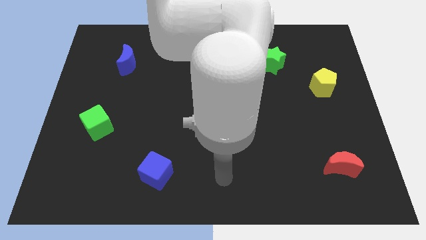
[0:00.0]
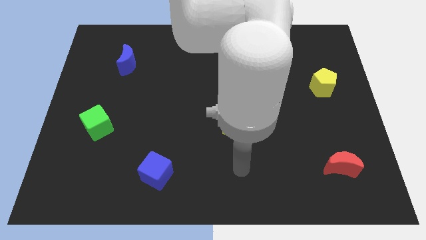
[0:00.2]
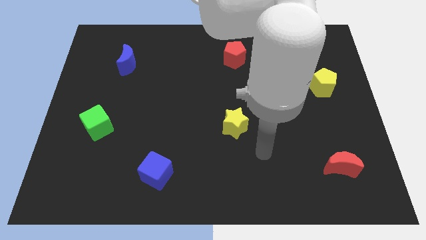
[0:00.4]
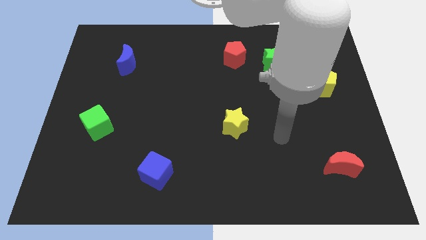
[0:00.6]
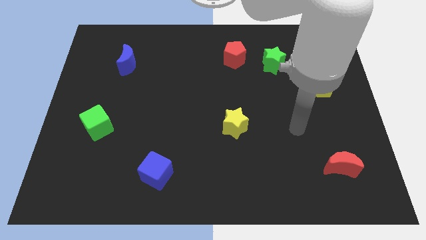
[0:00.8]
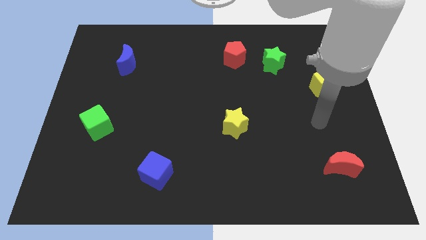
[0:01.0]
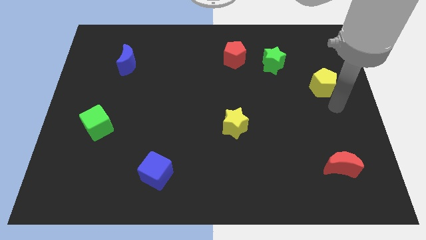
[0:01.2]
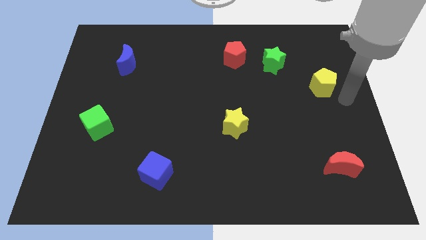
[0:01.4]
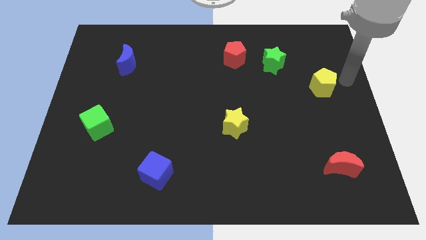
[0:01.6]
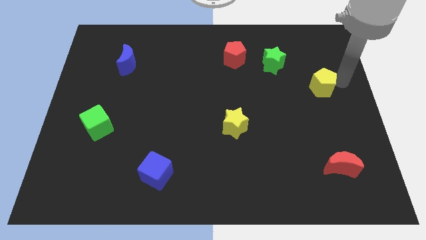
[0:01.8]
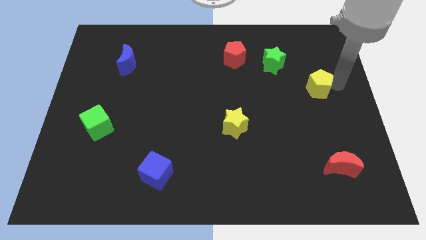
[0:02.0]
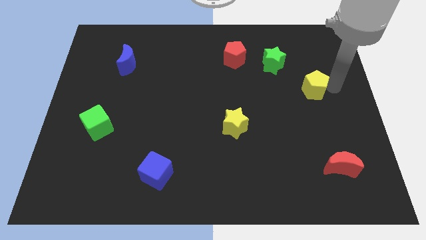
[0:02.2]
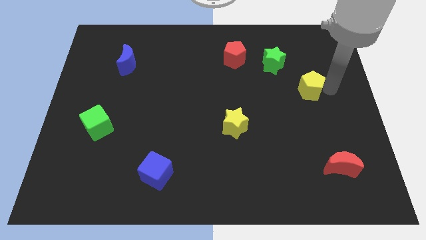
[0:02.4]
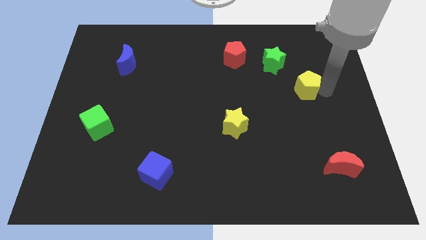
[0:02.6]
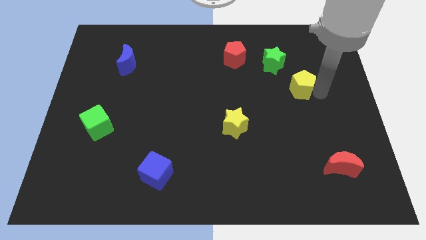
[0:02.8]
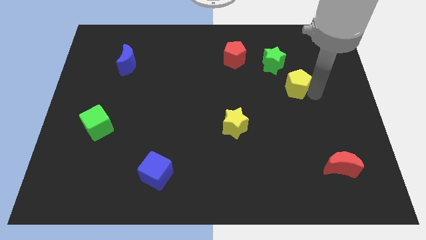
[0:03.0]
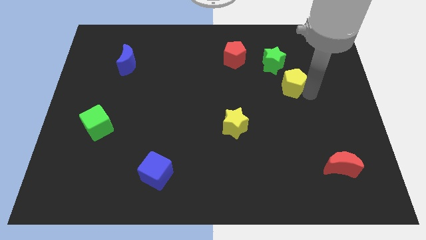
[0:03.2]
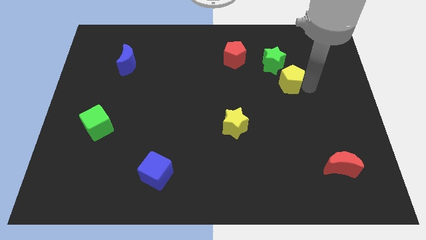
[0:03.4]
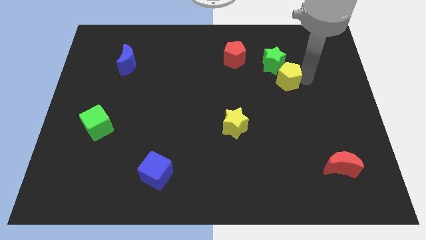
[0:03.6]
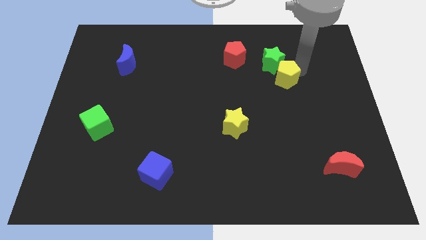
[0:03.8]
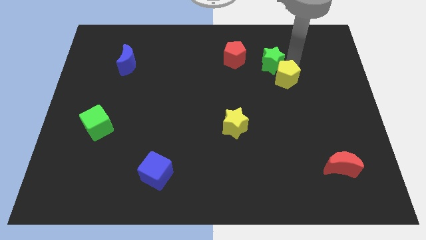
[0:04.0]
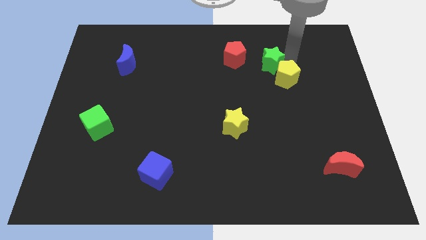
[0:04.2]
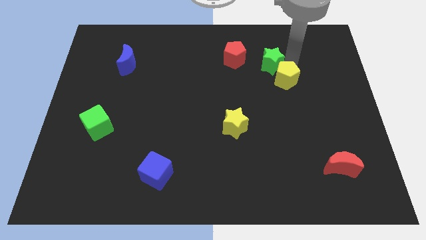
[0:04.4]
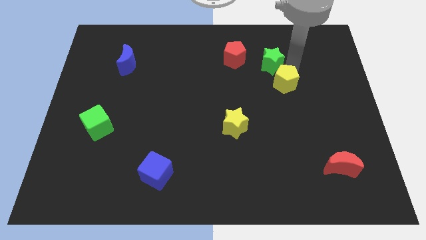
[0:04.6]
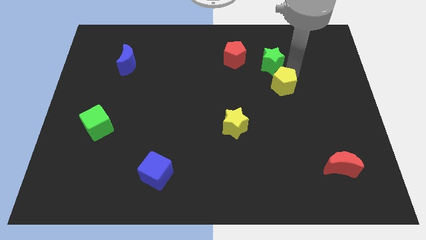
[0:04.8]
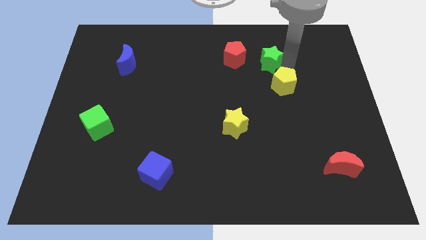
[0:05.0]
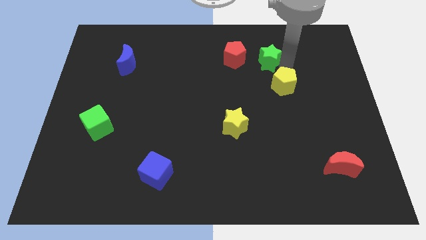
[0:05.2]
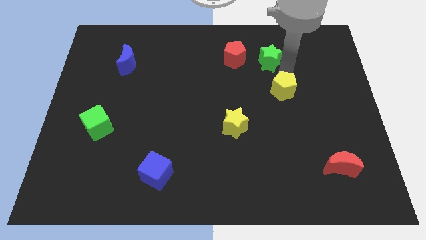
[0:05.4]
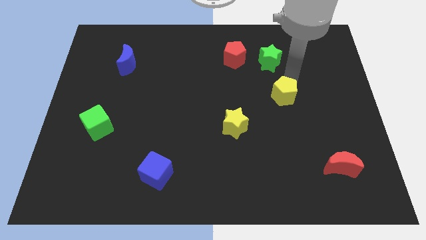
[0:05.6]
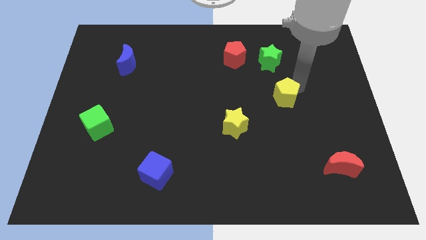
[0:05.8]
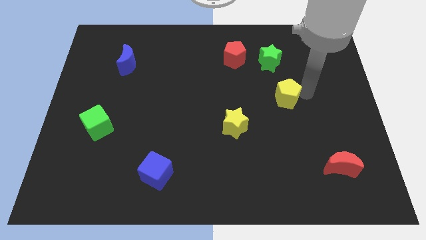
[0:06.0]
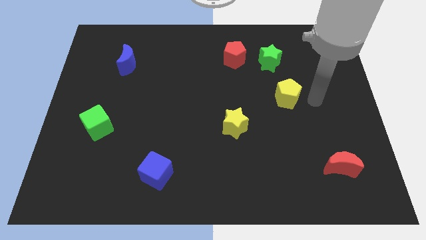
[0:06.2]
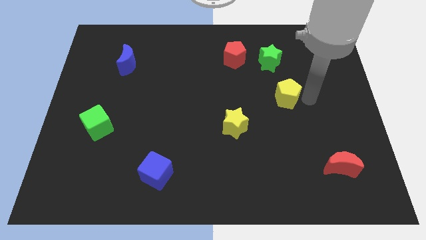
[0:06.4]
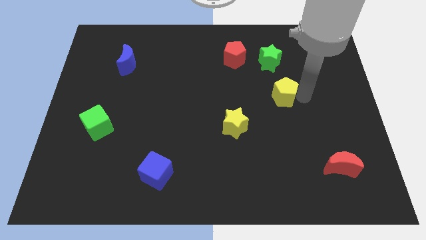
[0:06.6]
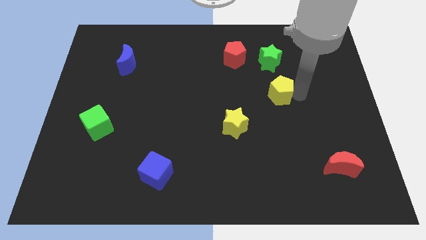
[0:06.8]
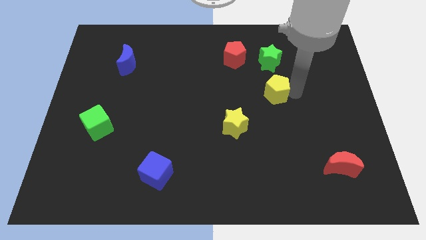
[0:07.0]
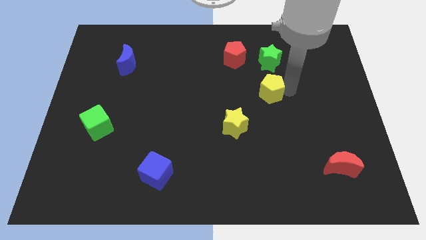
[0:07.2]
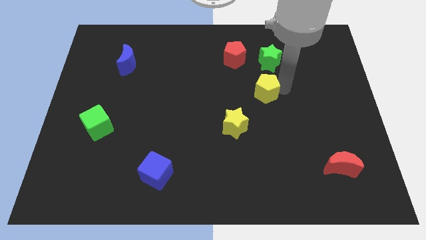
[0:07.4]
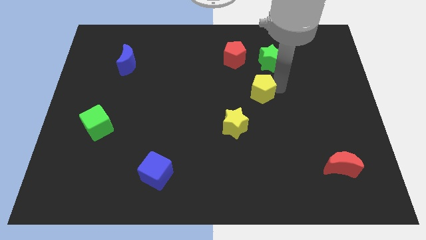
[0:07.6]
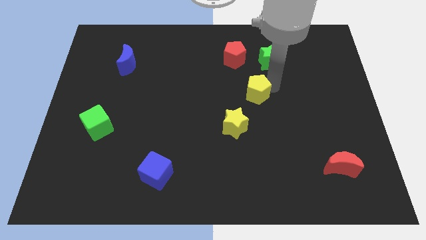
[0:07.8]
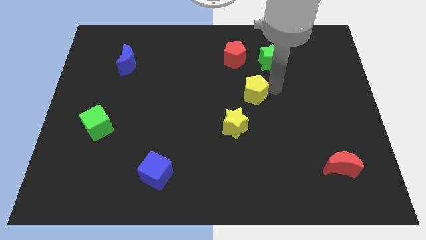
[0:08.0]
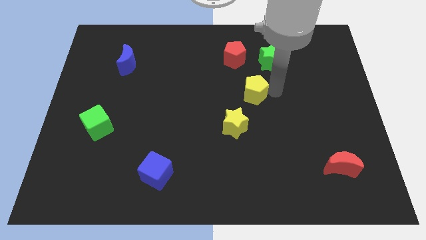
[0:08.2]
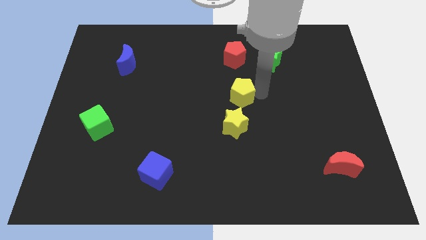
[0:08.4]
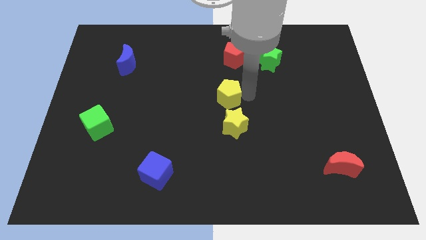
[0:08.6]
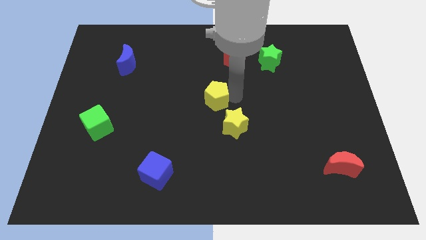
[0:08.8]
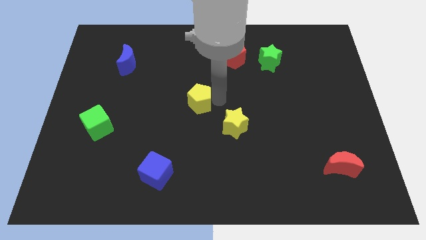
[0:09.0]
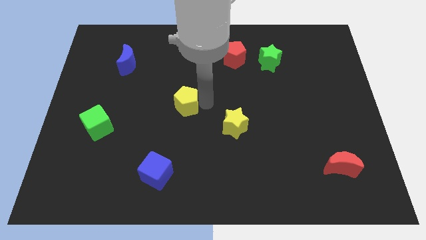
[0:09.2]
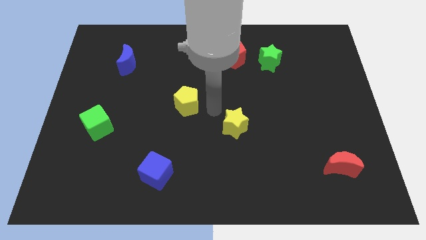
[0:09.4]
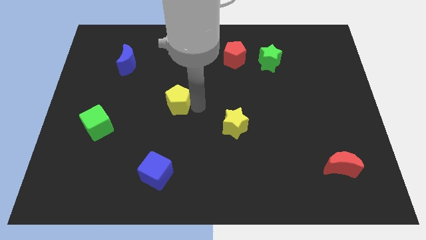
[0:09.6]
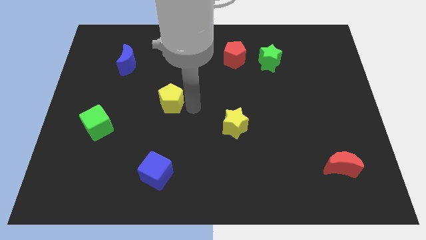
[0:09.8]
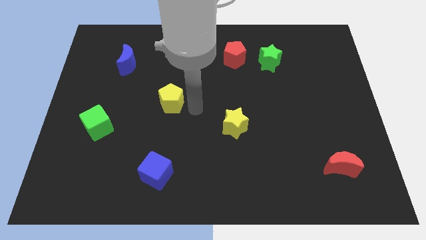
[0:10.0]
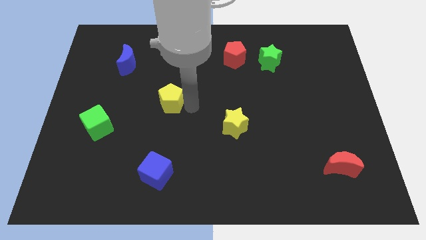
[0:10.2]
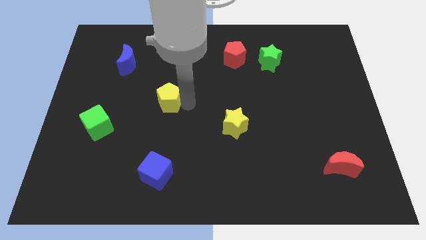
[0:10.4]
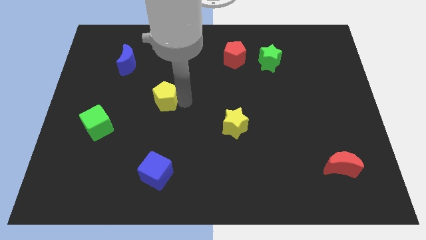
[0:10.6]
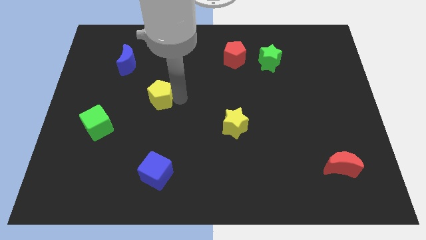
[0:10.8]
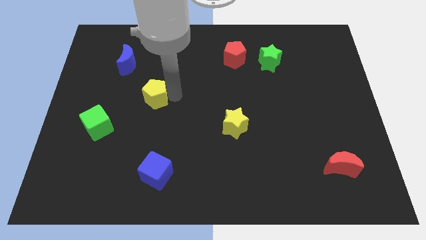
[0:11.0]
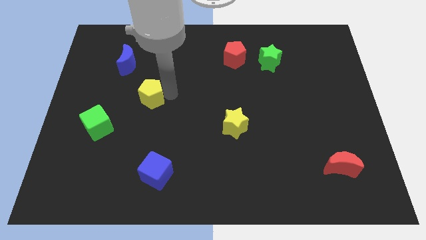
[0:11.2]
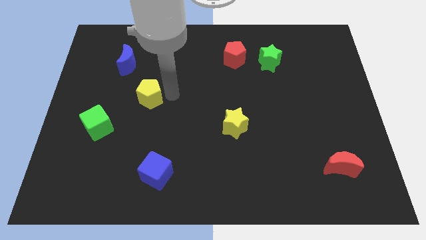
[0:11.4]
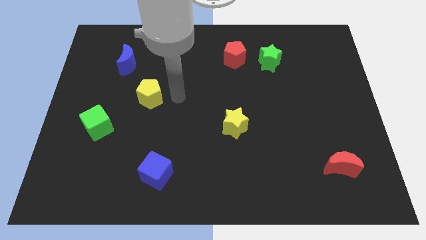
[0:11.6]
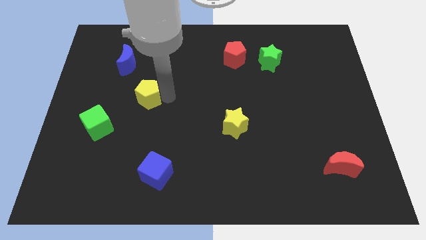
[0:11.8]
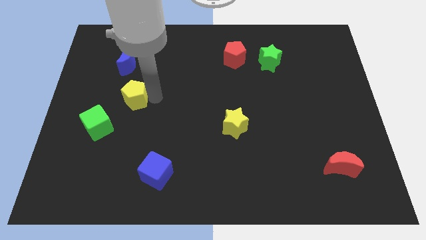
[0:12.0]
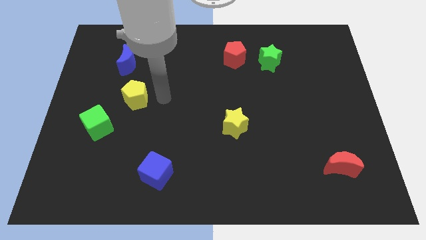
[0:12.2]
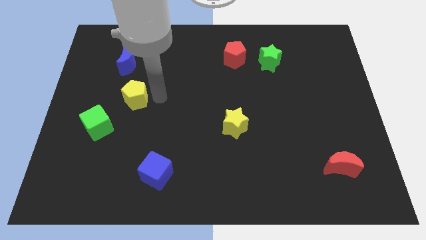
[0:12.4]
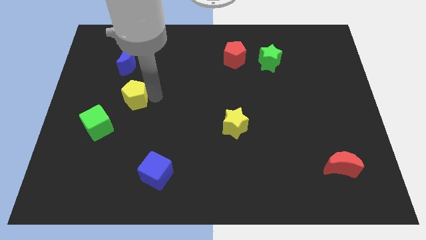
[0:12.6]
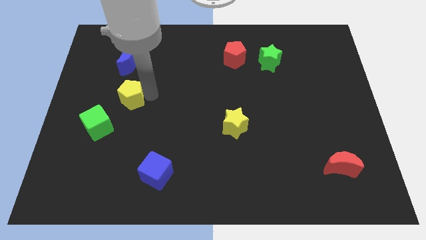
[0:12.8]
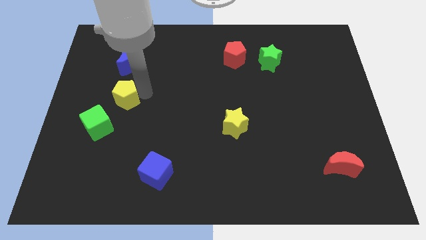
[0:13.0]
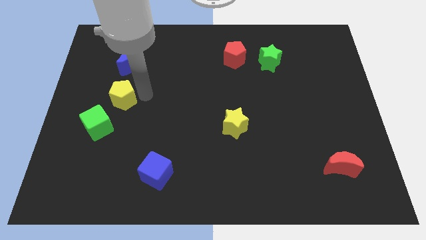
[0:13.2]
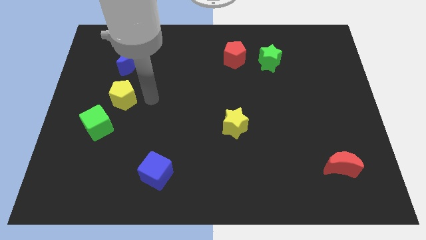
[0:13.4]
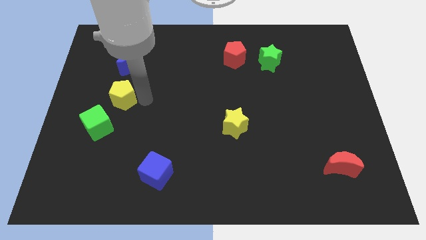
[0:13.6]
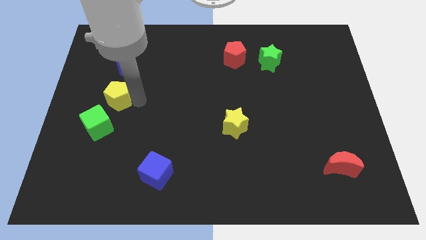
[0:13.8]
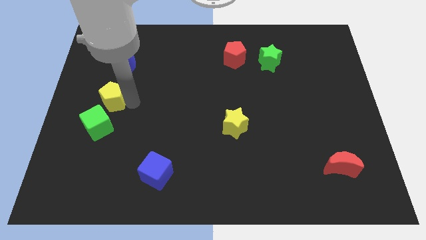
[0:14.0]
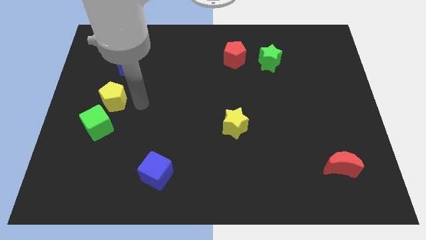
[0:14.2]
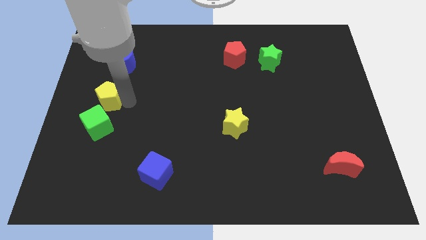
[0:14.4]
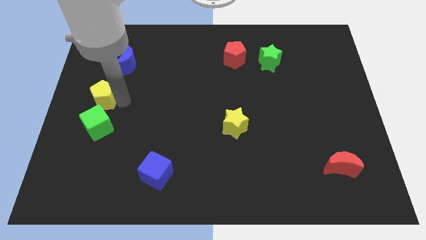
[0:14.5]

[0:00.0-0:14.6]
put the yellow pentagon to the left side
